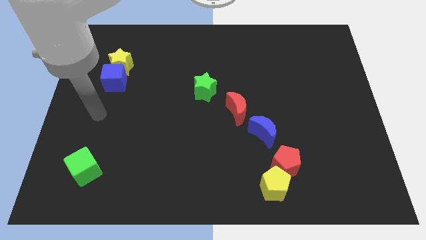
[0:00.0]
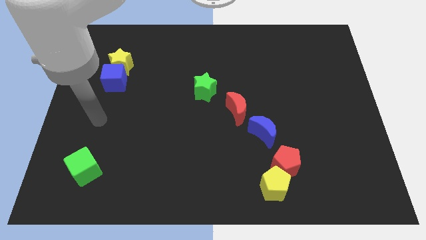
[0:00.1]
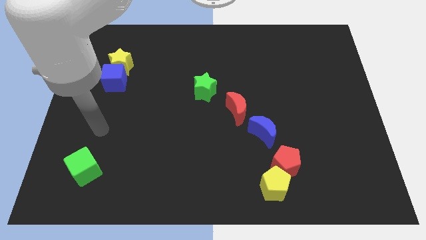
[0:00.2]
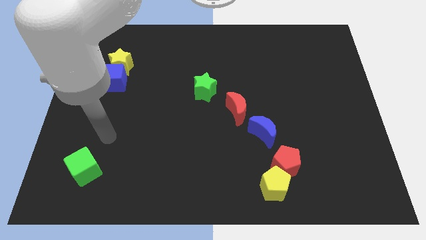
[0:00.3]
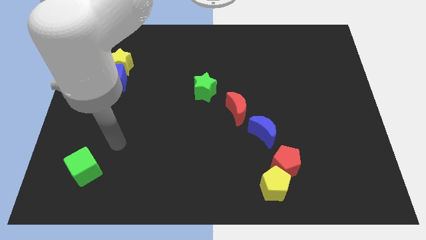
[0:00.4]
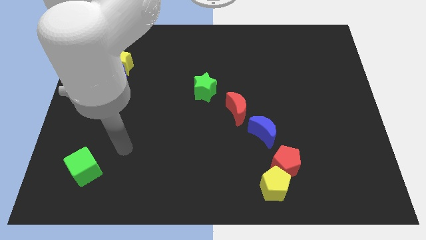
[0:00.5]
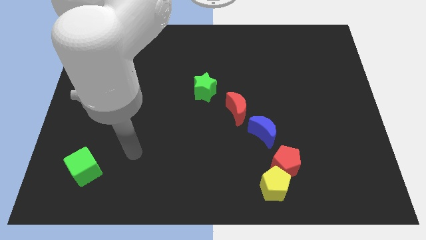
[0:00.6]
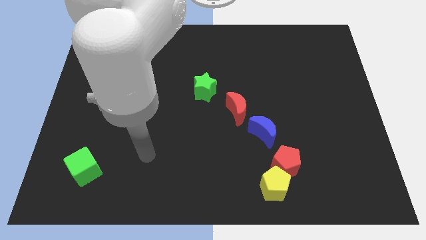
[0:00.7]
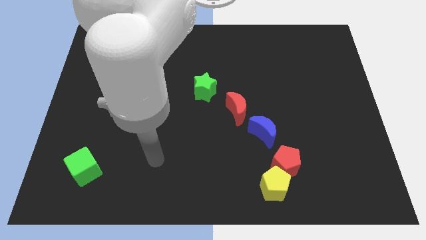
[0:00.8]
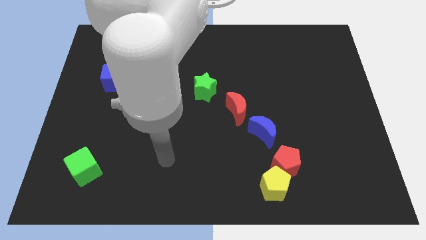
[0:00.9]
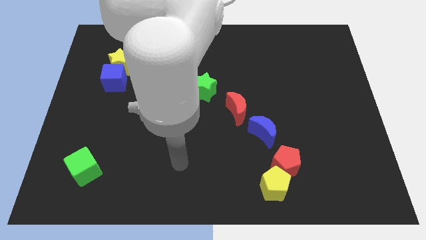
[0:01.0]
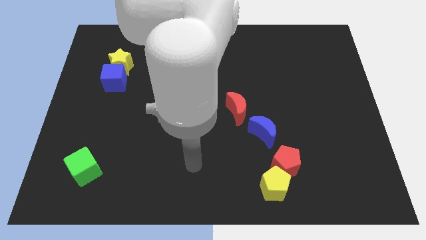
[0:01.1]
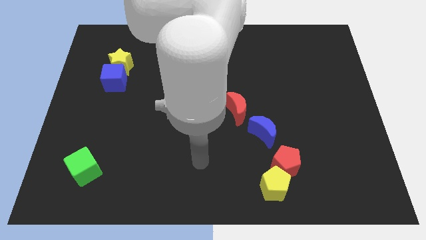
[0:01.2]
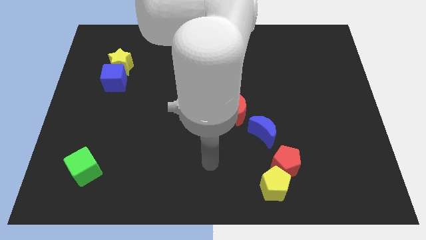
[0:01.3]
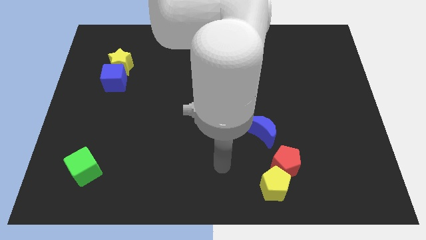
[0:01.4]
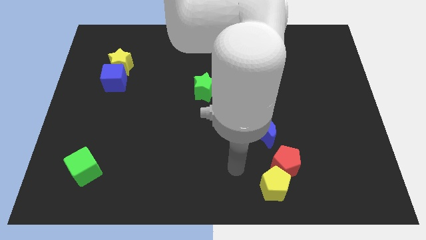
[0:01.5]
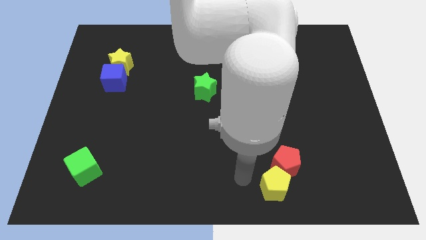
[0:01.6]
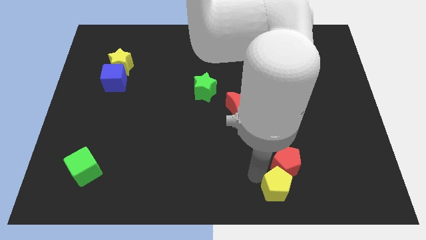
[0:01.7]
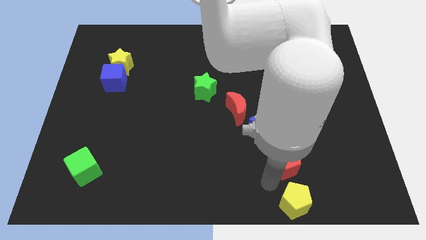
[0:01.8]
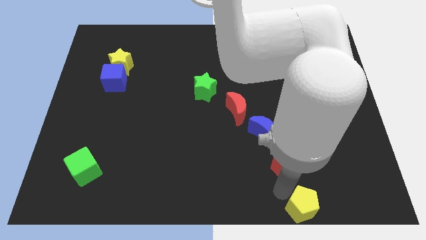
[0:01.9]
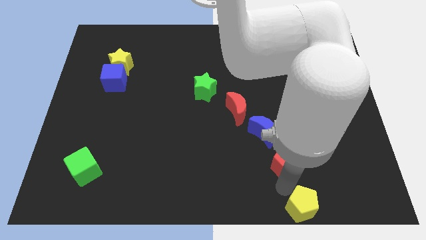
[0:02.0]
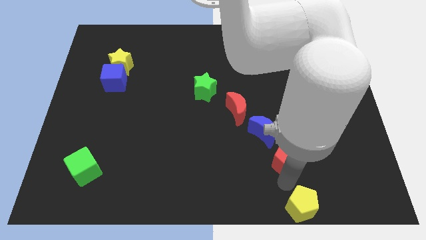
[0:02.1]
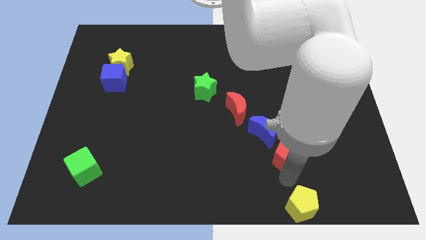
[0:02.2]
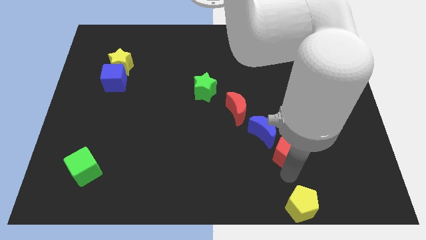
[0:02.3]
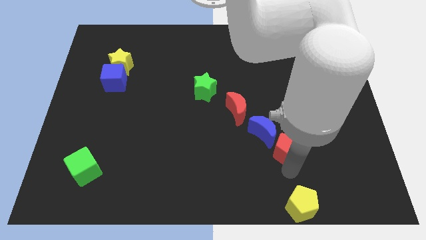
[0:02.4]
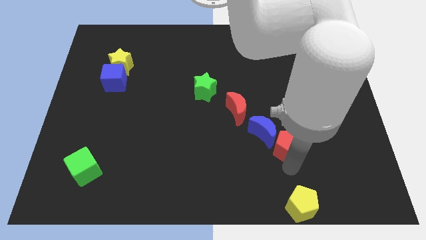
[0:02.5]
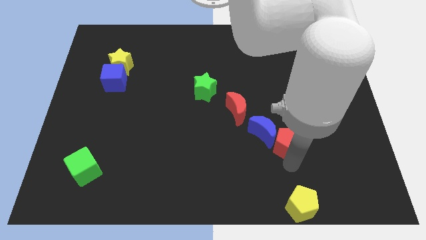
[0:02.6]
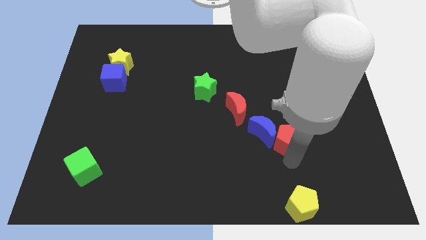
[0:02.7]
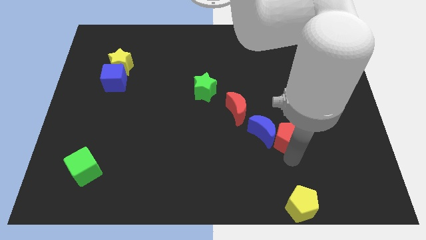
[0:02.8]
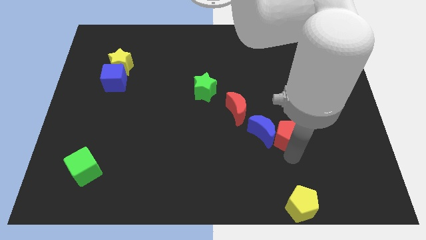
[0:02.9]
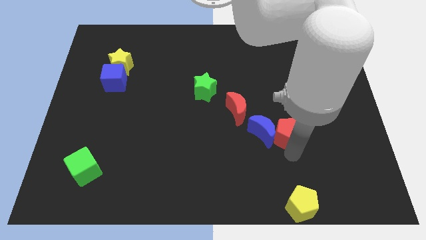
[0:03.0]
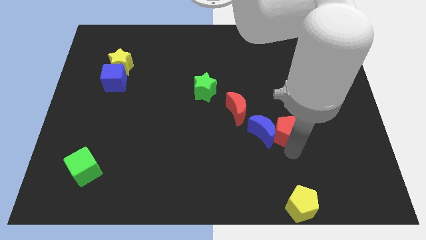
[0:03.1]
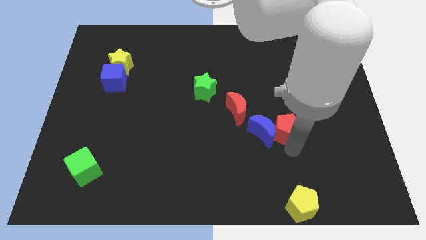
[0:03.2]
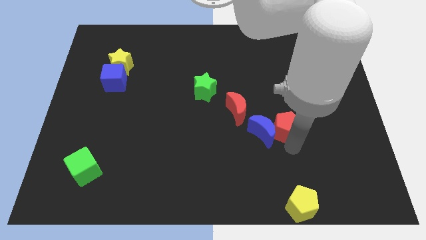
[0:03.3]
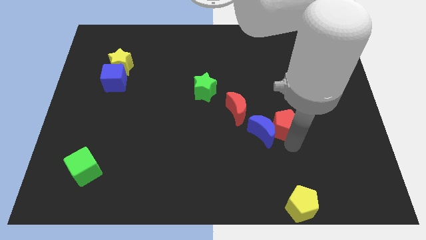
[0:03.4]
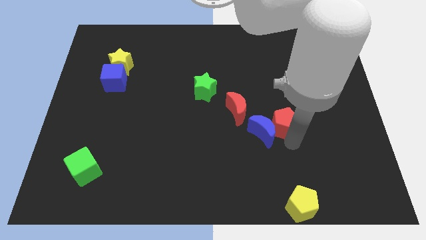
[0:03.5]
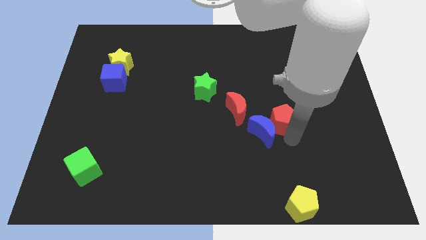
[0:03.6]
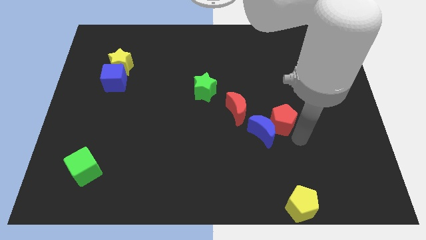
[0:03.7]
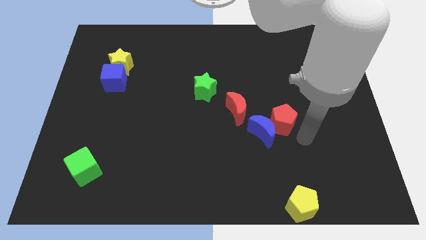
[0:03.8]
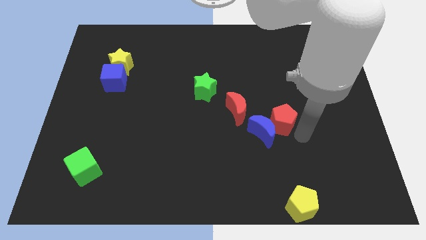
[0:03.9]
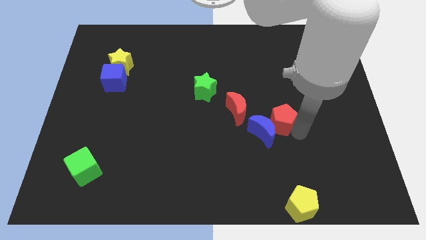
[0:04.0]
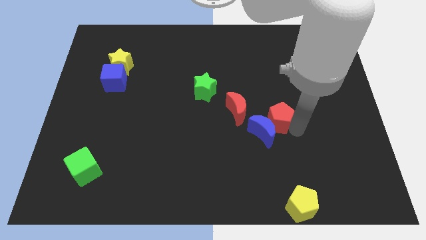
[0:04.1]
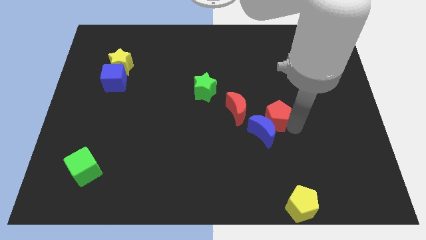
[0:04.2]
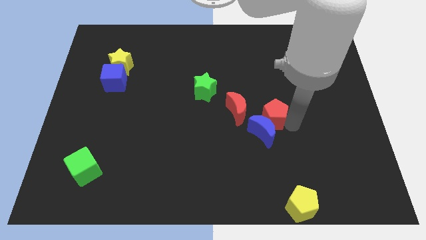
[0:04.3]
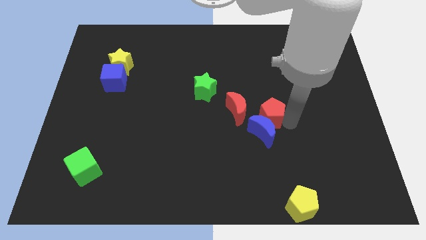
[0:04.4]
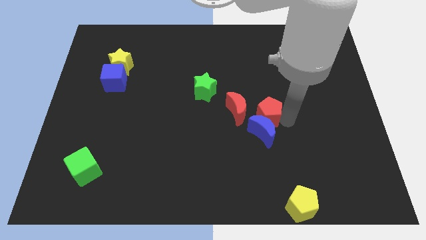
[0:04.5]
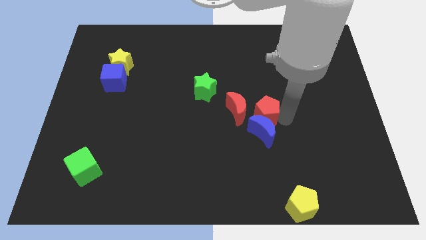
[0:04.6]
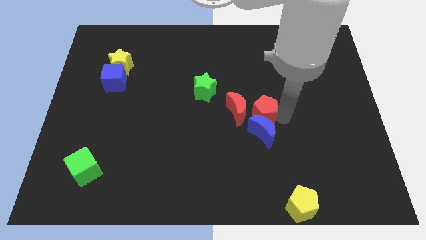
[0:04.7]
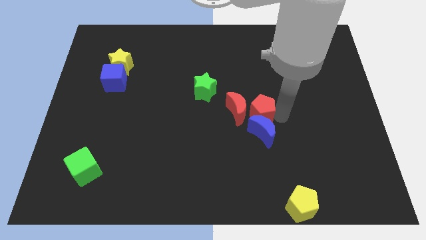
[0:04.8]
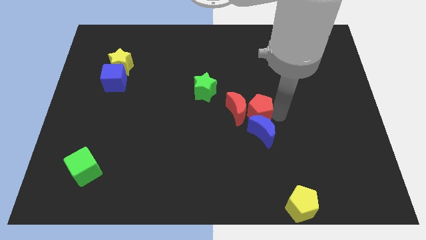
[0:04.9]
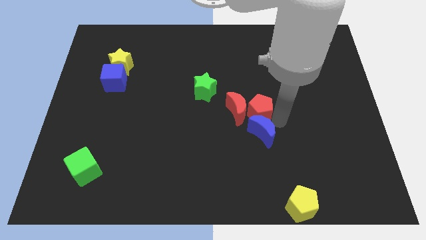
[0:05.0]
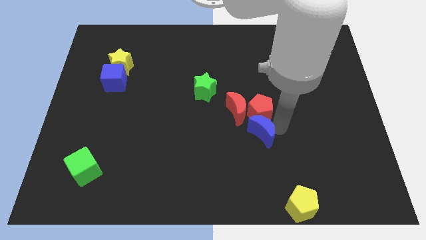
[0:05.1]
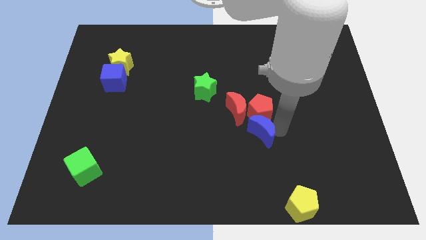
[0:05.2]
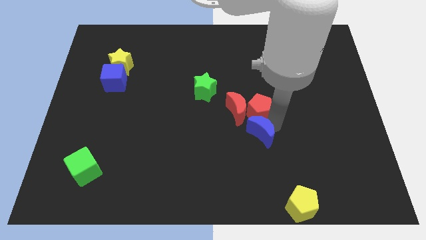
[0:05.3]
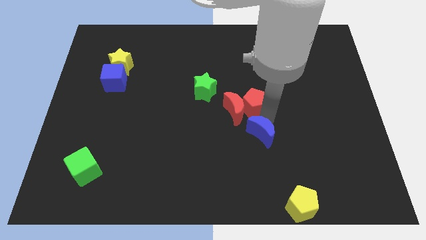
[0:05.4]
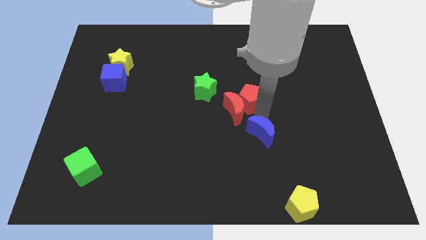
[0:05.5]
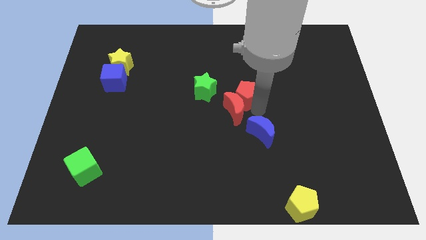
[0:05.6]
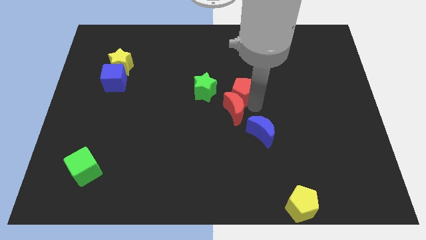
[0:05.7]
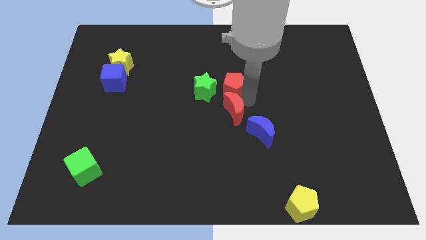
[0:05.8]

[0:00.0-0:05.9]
move the red pentagon diagonally up and to the right of the green star

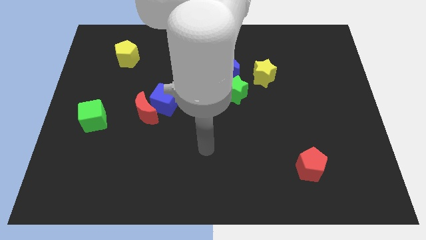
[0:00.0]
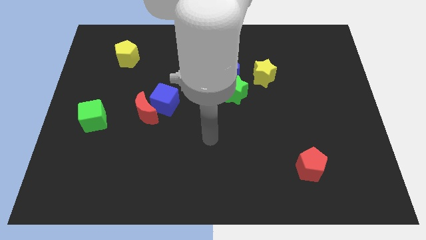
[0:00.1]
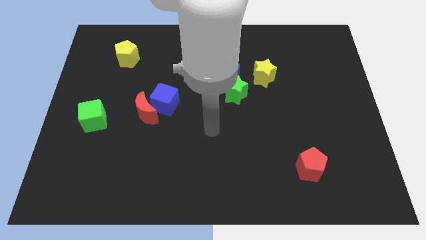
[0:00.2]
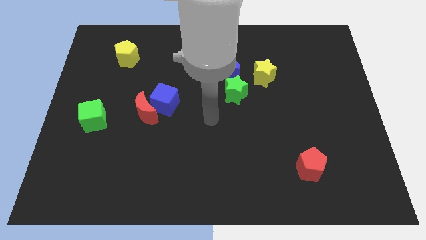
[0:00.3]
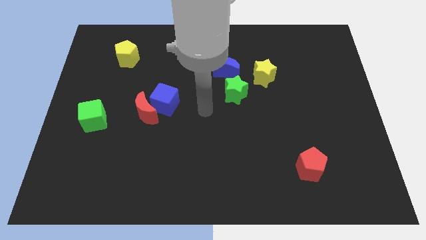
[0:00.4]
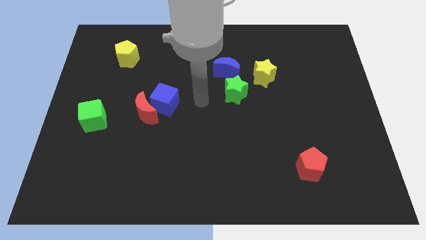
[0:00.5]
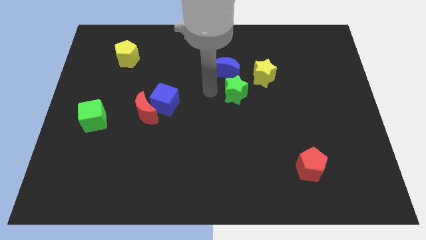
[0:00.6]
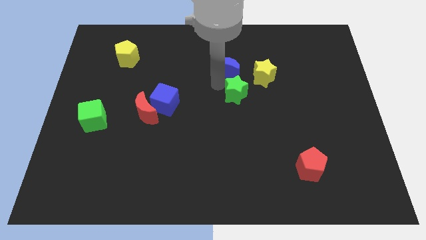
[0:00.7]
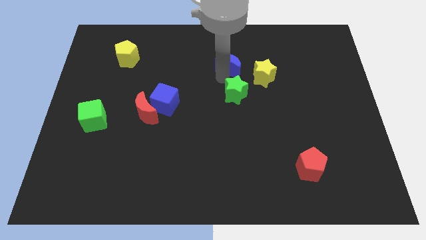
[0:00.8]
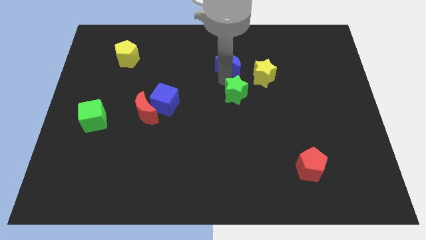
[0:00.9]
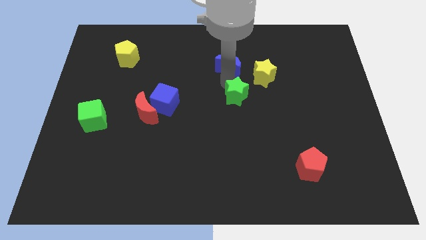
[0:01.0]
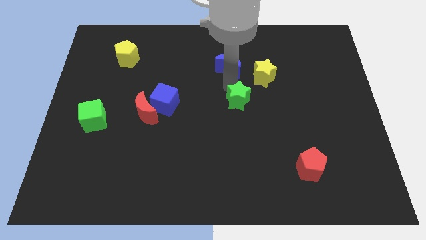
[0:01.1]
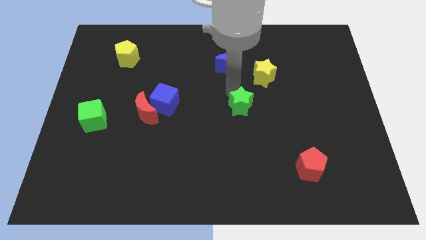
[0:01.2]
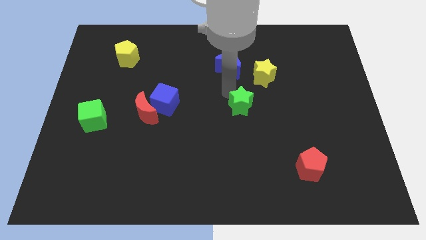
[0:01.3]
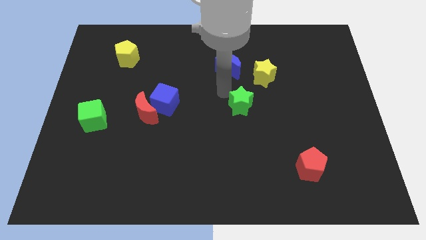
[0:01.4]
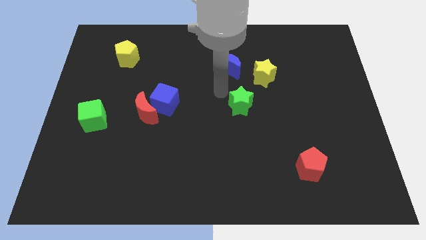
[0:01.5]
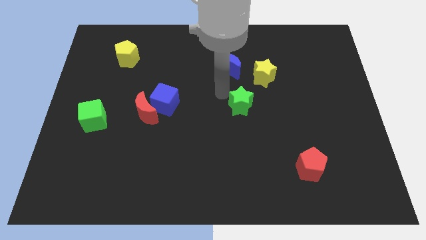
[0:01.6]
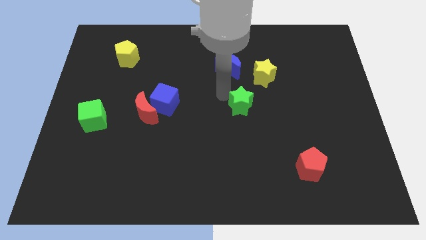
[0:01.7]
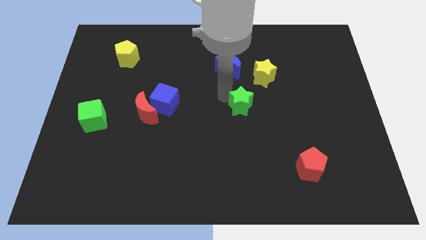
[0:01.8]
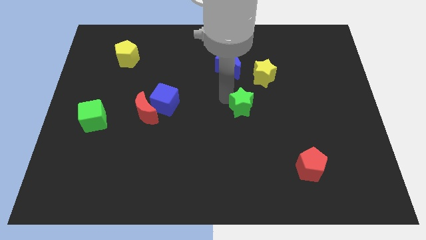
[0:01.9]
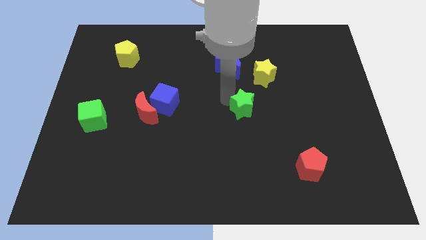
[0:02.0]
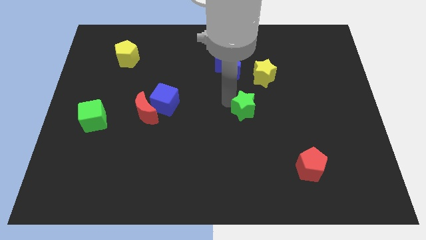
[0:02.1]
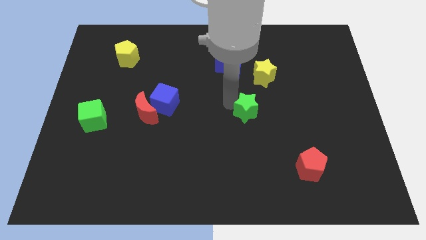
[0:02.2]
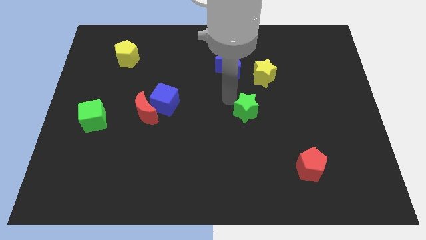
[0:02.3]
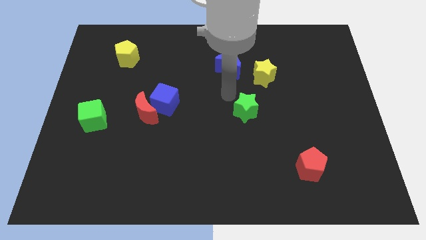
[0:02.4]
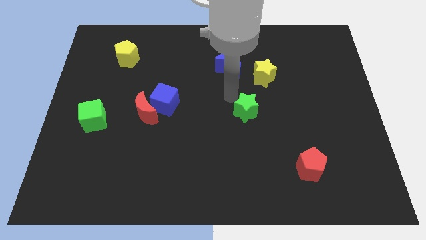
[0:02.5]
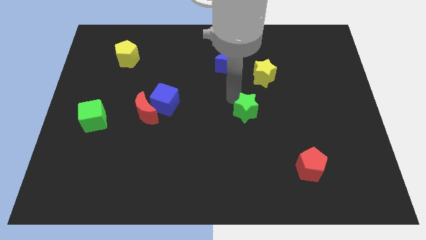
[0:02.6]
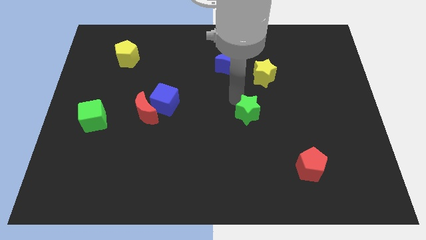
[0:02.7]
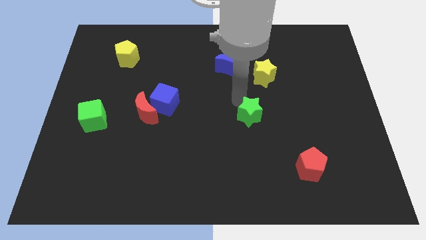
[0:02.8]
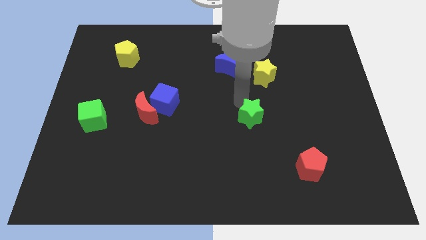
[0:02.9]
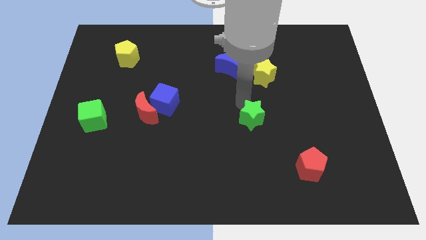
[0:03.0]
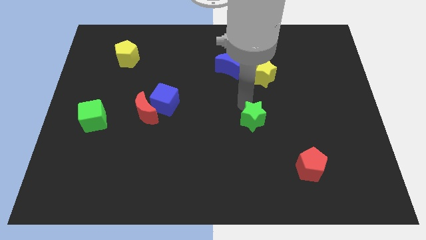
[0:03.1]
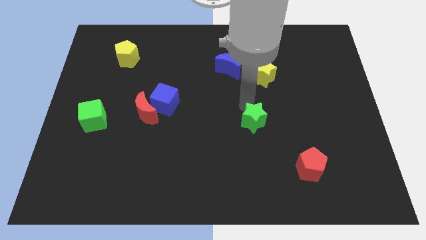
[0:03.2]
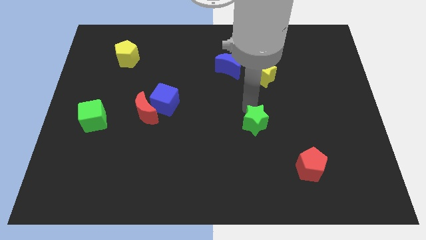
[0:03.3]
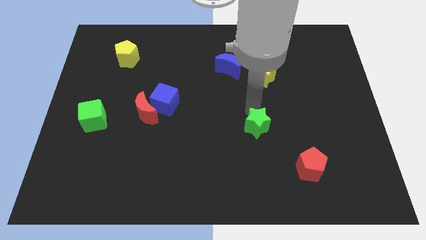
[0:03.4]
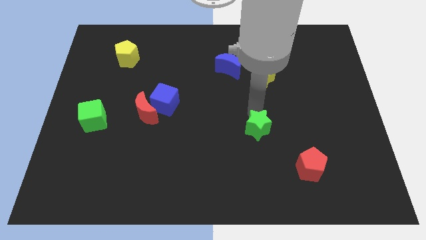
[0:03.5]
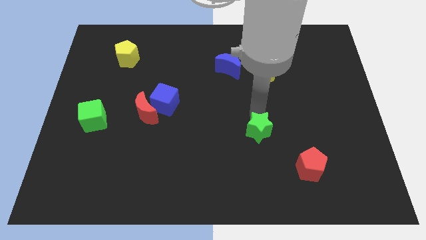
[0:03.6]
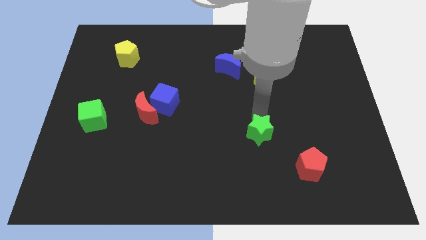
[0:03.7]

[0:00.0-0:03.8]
move the green star diagonally up and to the left of the red pentagon
